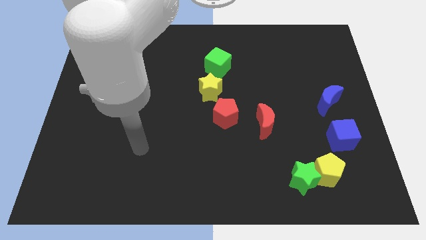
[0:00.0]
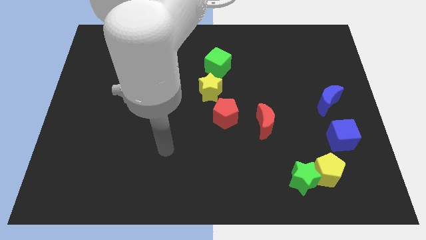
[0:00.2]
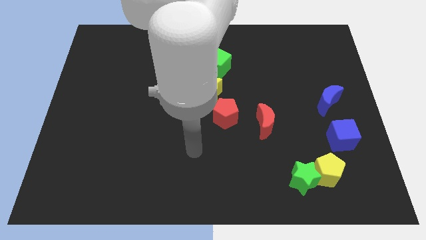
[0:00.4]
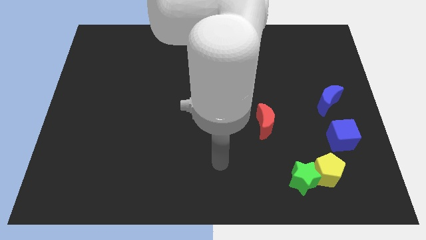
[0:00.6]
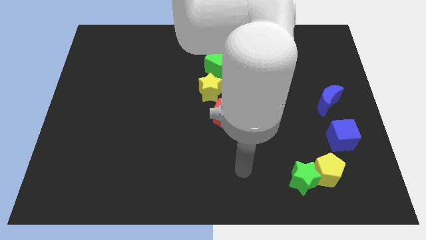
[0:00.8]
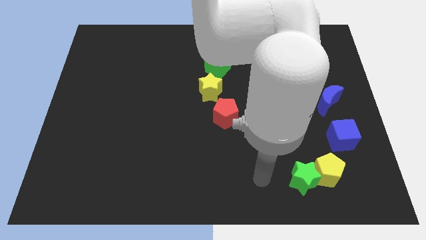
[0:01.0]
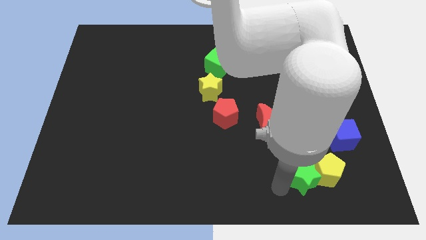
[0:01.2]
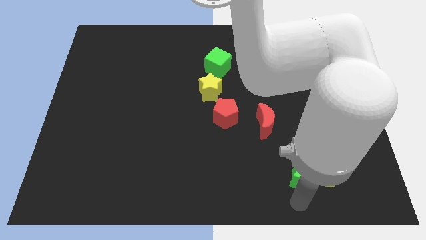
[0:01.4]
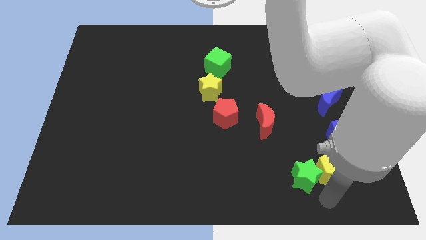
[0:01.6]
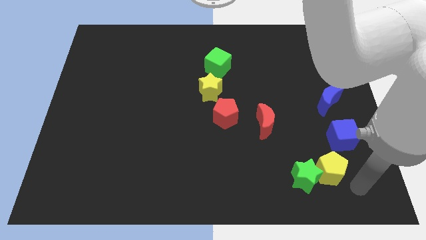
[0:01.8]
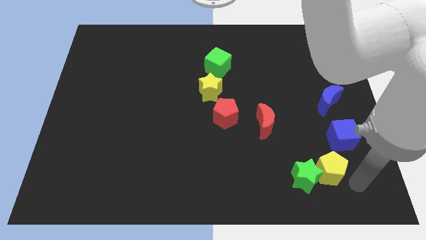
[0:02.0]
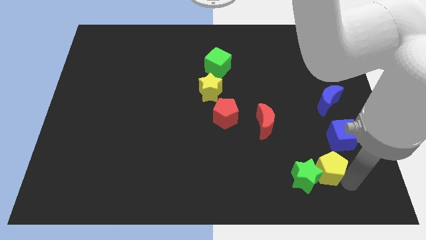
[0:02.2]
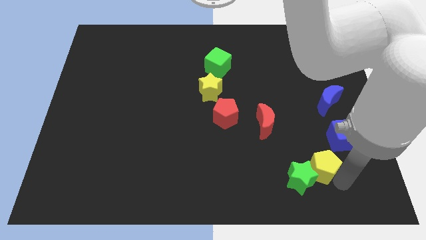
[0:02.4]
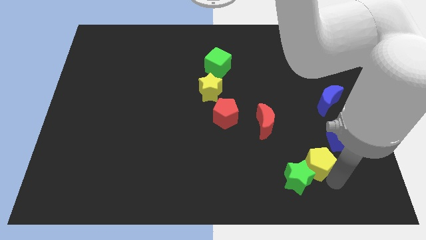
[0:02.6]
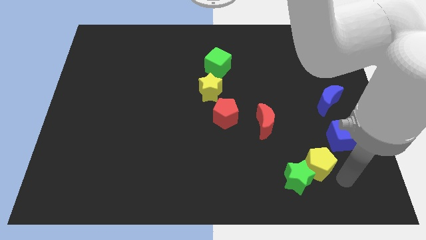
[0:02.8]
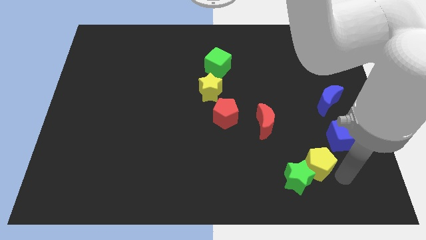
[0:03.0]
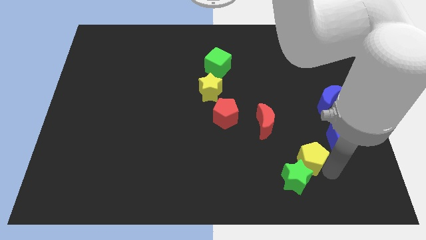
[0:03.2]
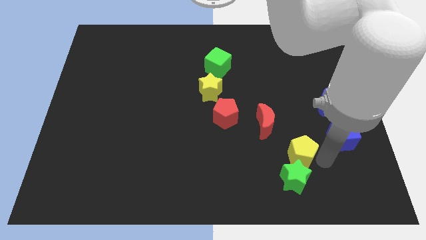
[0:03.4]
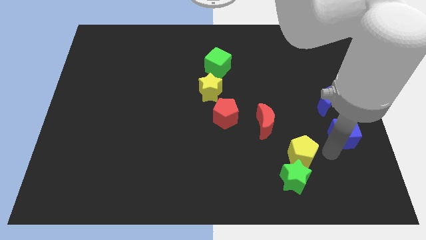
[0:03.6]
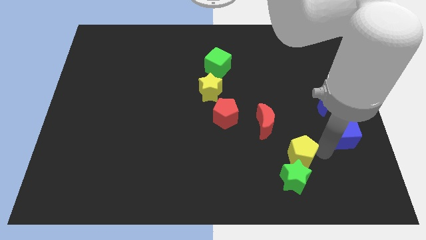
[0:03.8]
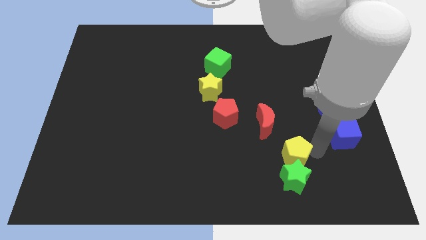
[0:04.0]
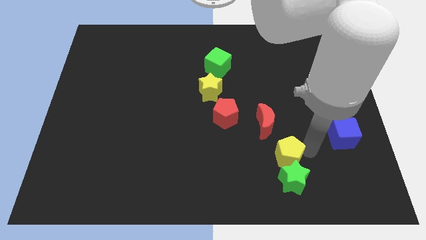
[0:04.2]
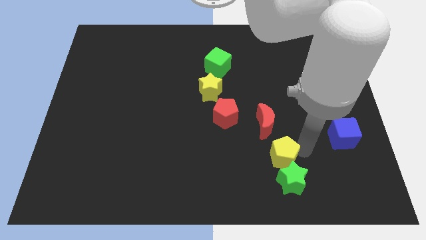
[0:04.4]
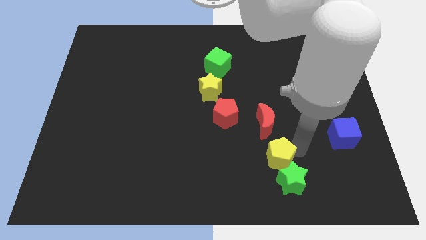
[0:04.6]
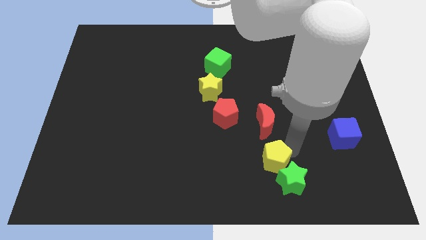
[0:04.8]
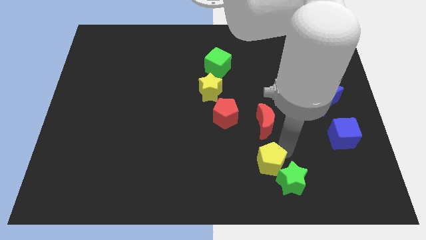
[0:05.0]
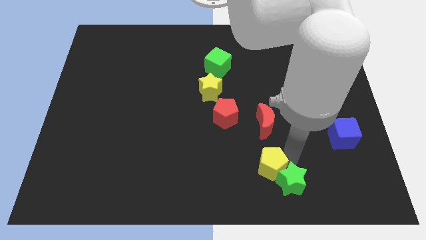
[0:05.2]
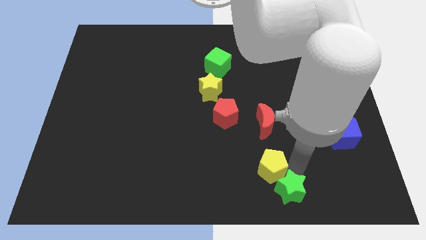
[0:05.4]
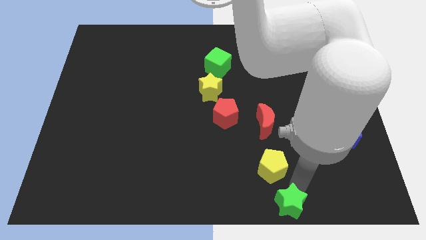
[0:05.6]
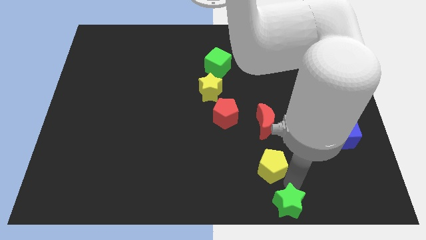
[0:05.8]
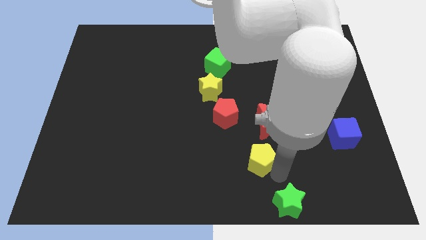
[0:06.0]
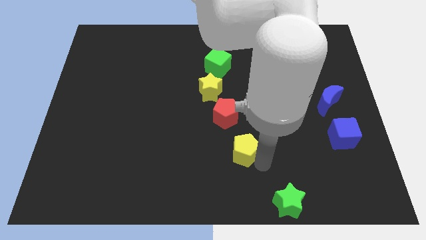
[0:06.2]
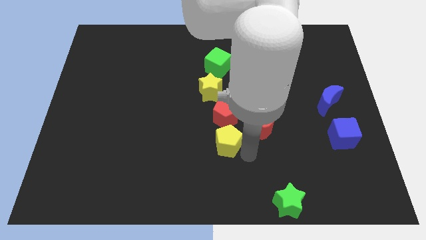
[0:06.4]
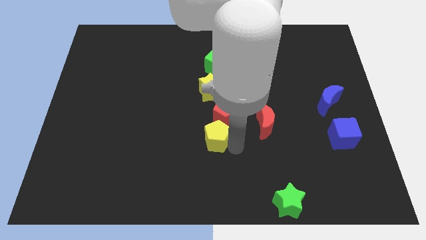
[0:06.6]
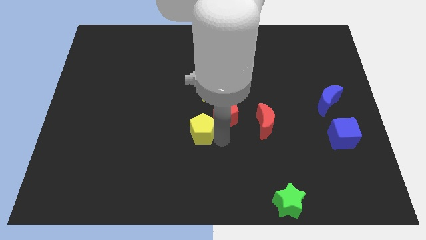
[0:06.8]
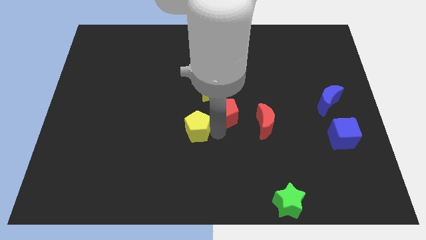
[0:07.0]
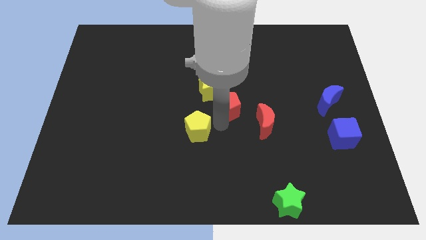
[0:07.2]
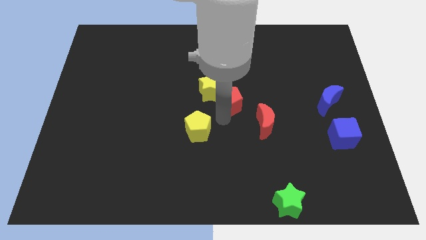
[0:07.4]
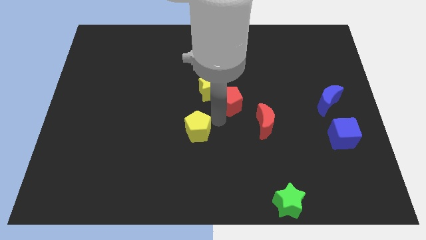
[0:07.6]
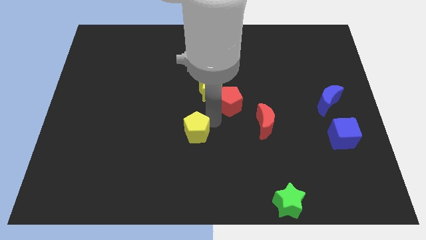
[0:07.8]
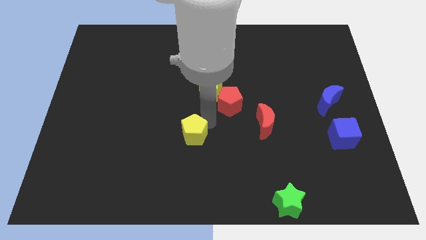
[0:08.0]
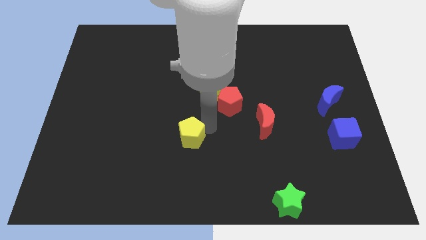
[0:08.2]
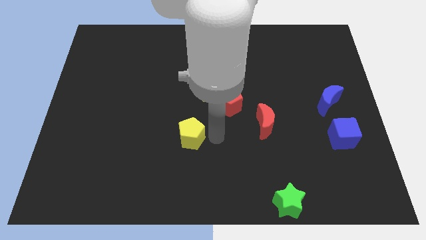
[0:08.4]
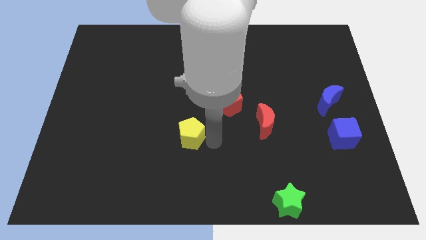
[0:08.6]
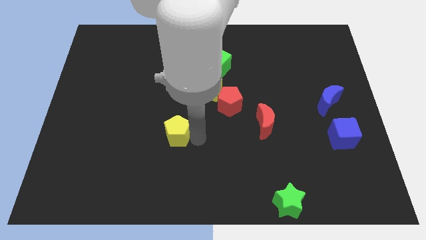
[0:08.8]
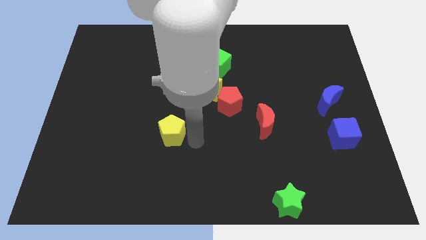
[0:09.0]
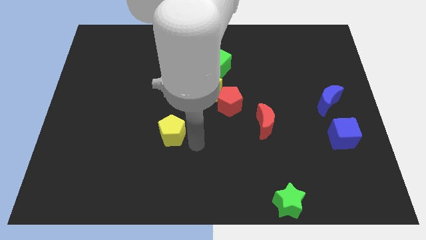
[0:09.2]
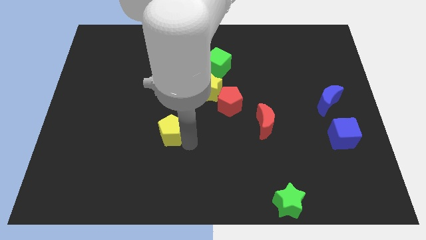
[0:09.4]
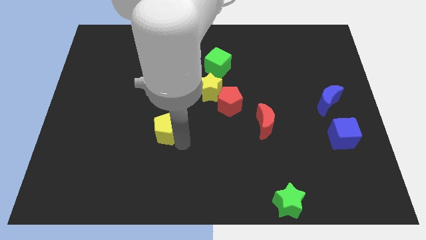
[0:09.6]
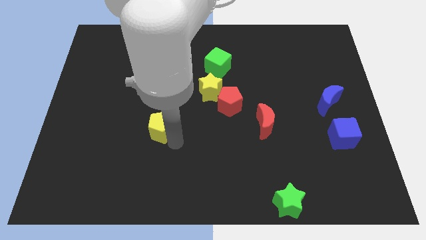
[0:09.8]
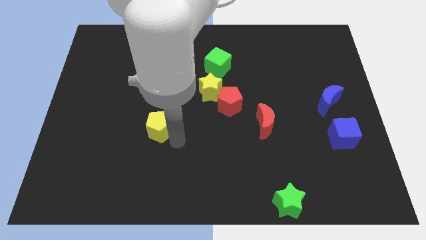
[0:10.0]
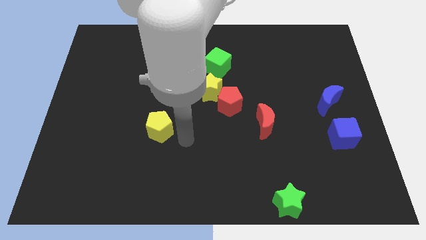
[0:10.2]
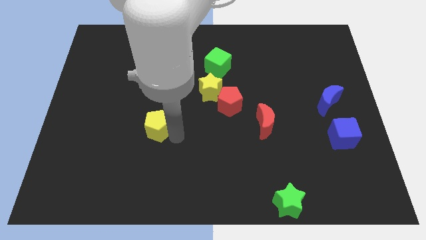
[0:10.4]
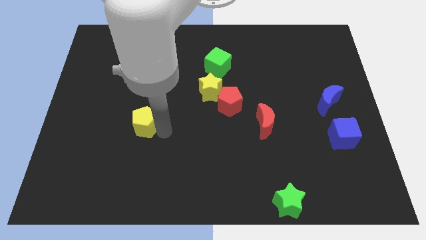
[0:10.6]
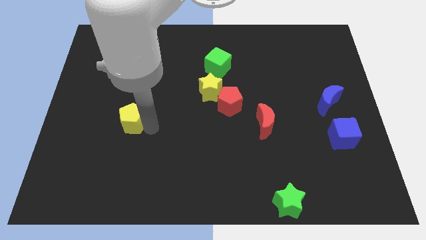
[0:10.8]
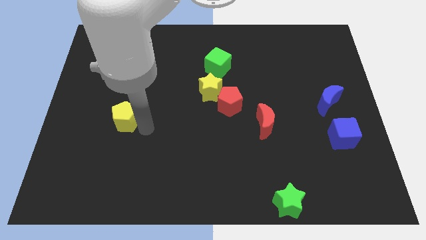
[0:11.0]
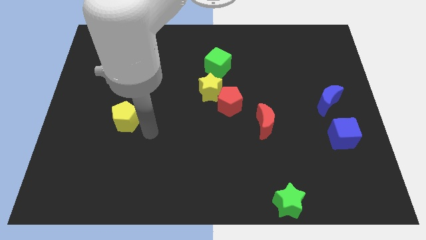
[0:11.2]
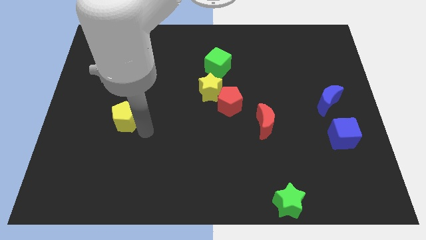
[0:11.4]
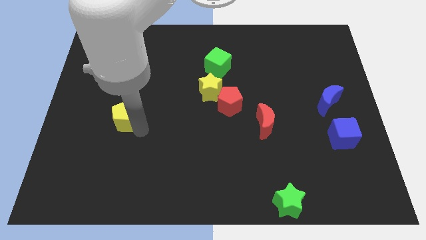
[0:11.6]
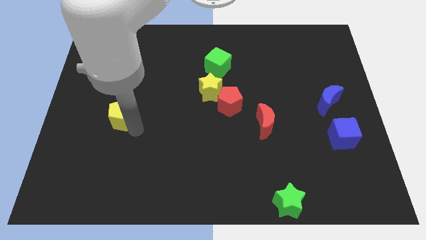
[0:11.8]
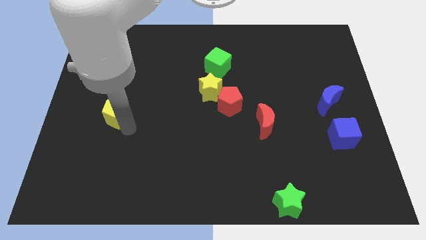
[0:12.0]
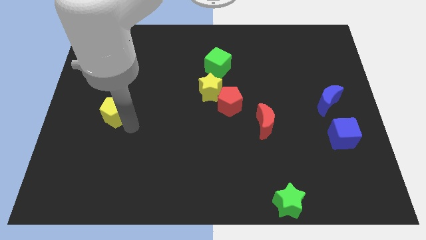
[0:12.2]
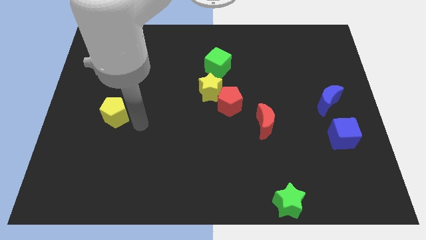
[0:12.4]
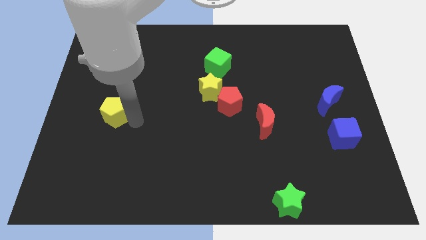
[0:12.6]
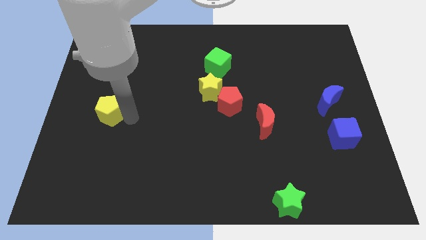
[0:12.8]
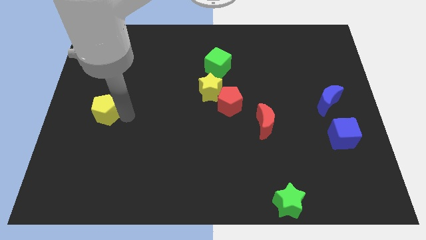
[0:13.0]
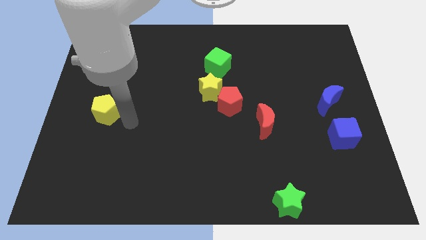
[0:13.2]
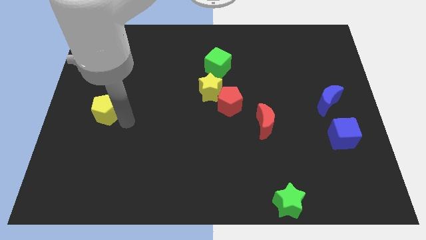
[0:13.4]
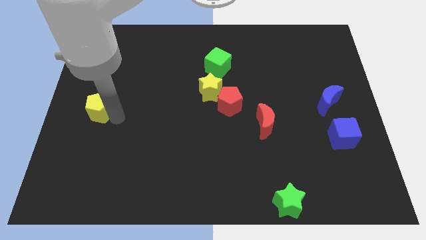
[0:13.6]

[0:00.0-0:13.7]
put the yellow pentagon to the left side
